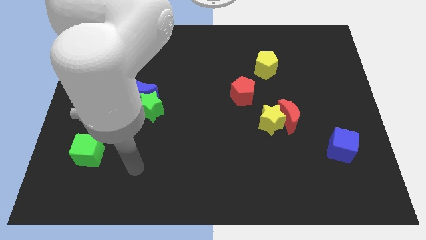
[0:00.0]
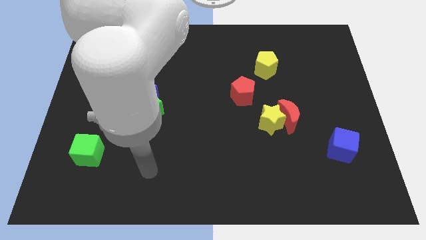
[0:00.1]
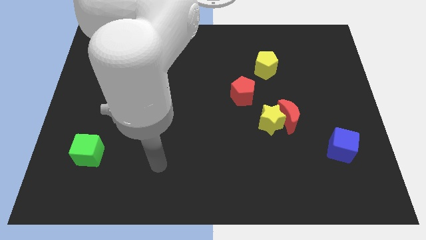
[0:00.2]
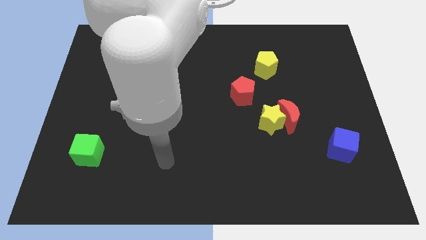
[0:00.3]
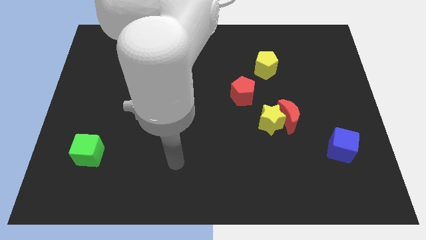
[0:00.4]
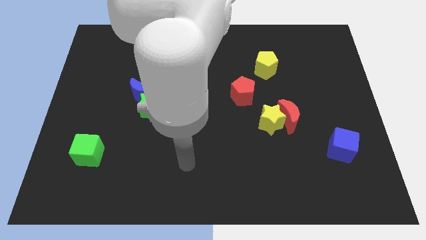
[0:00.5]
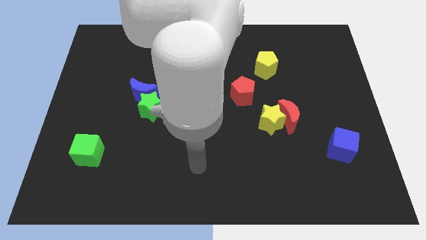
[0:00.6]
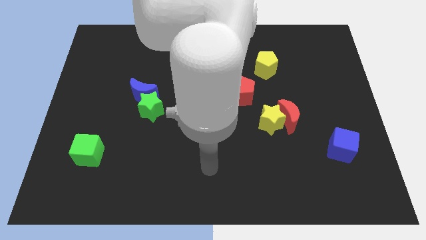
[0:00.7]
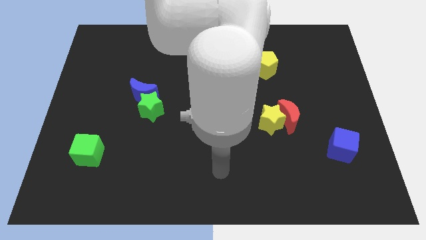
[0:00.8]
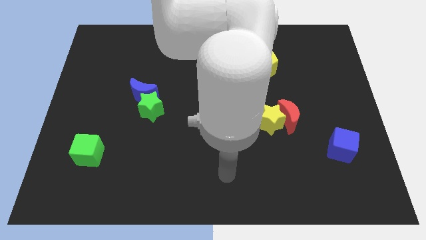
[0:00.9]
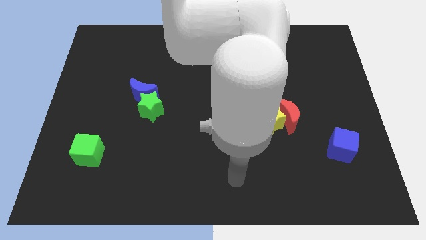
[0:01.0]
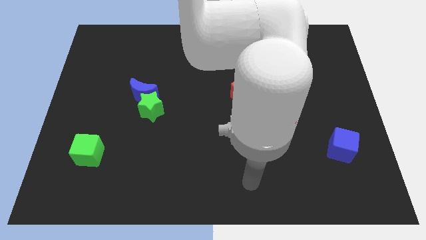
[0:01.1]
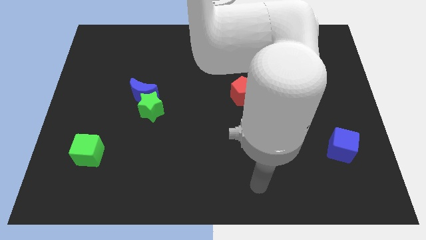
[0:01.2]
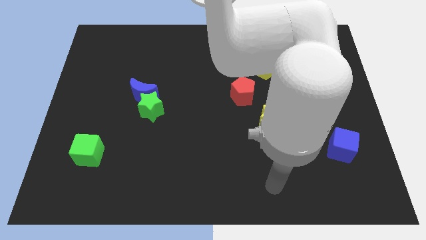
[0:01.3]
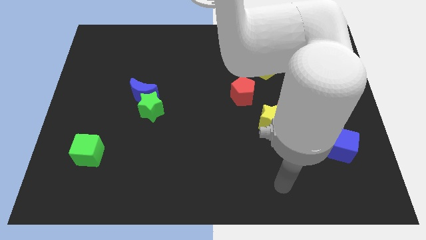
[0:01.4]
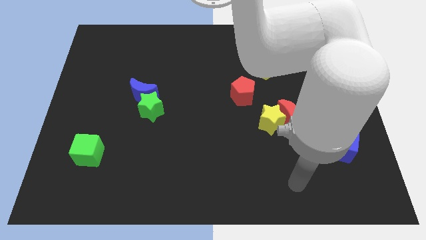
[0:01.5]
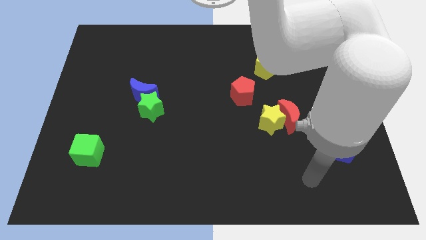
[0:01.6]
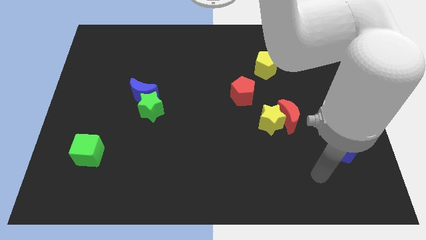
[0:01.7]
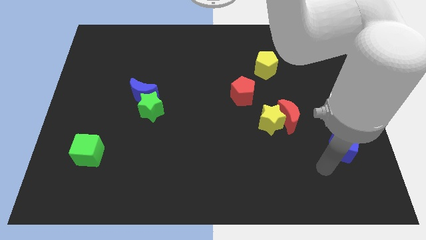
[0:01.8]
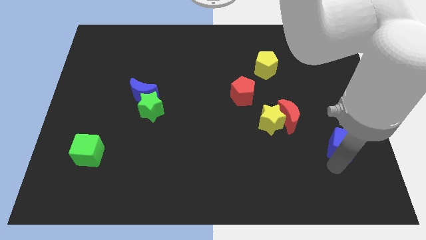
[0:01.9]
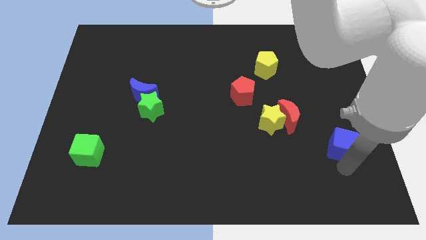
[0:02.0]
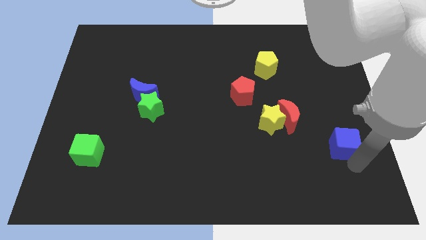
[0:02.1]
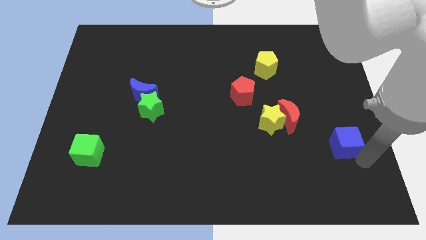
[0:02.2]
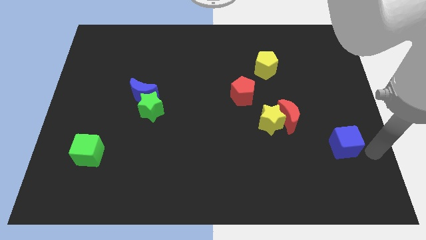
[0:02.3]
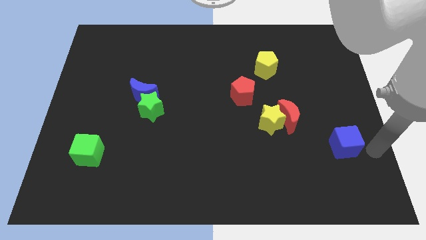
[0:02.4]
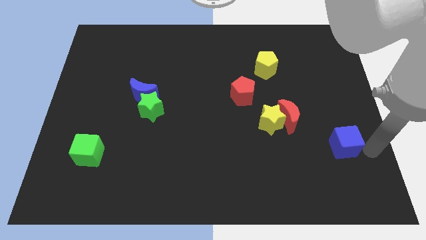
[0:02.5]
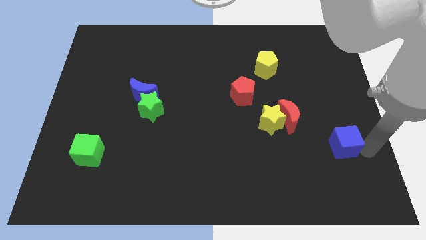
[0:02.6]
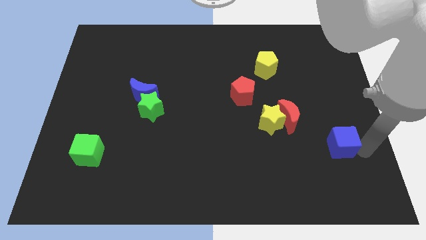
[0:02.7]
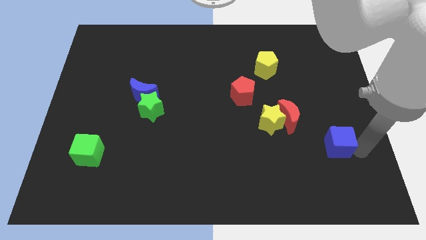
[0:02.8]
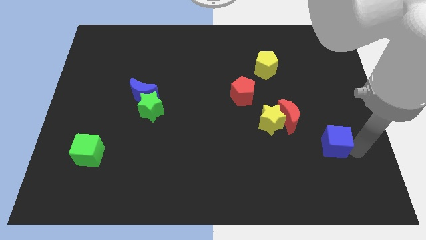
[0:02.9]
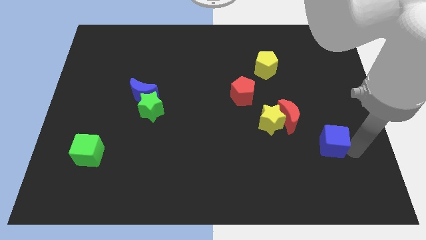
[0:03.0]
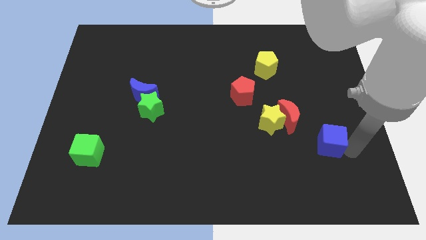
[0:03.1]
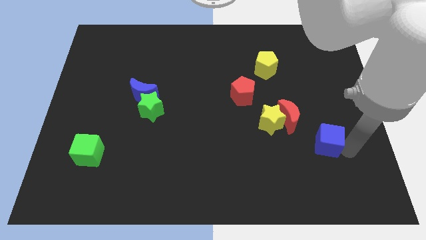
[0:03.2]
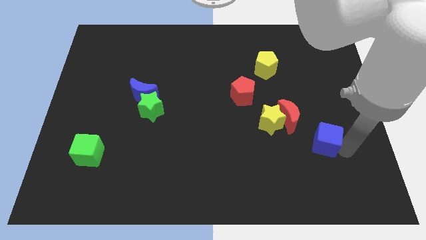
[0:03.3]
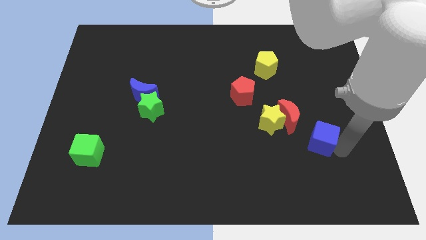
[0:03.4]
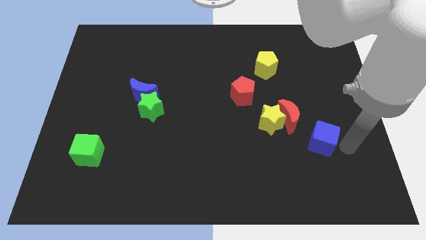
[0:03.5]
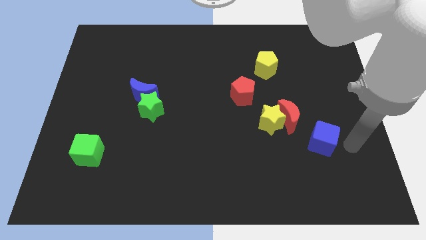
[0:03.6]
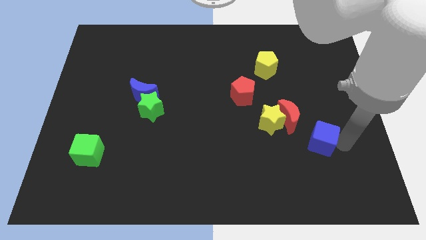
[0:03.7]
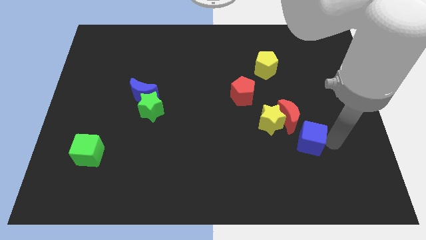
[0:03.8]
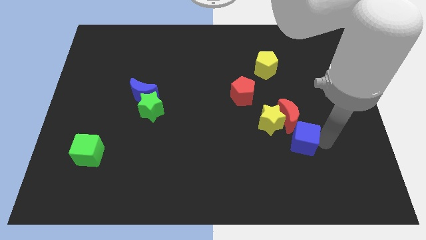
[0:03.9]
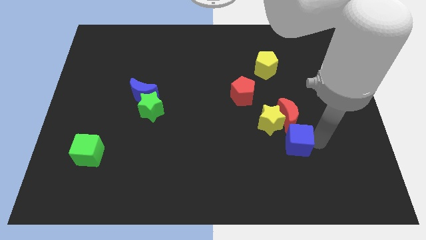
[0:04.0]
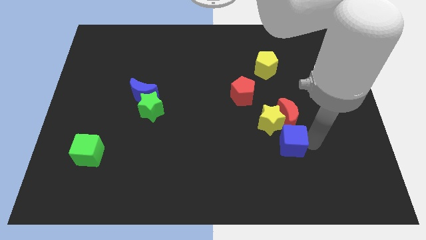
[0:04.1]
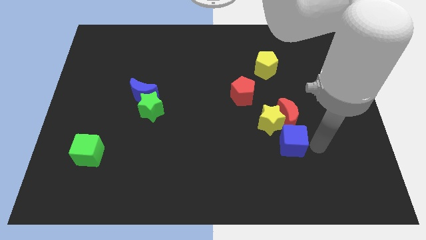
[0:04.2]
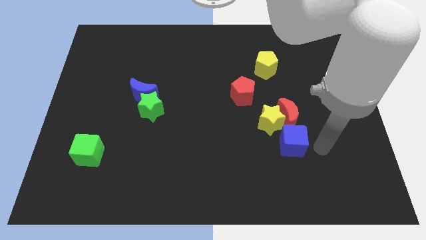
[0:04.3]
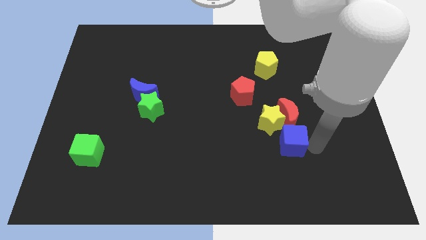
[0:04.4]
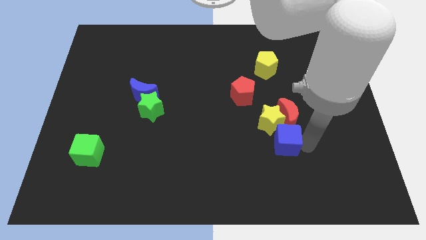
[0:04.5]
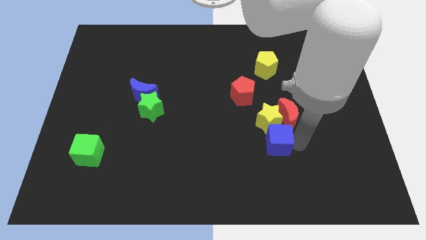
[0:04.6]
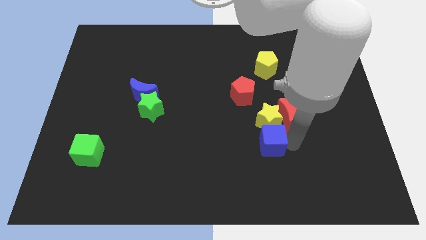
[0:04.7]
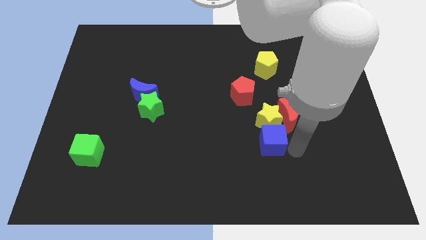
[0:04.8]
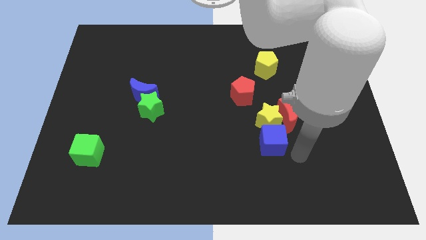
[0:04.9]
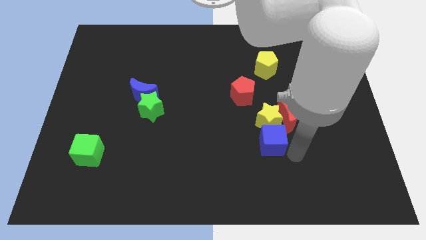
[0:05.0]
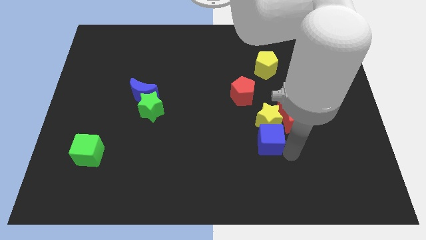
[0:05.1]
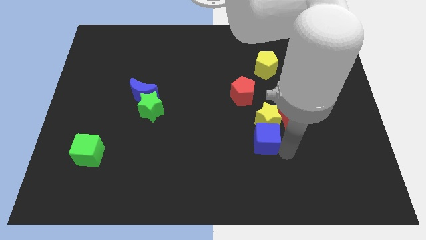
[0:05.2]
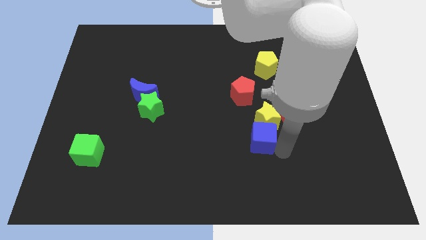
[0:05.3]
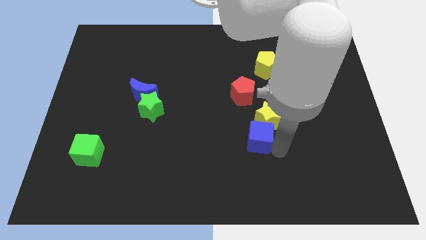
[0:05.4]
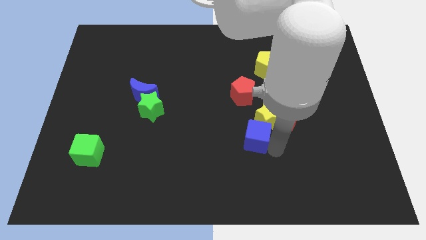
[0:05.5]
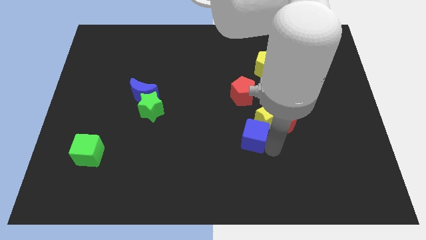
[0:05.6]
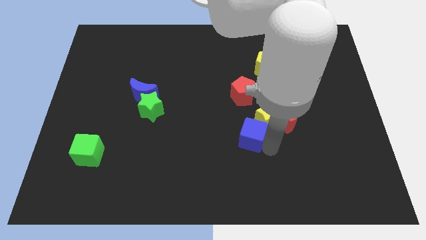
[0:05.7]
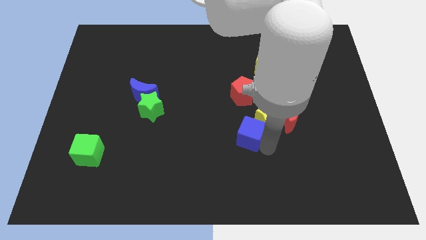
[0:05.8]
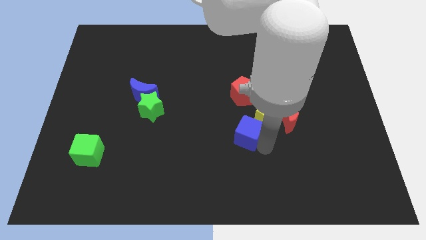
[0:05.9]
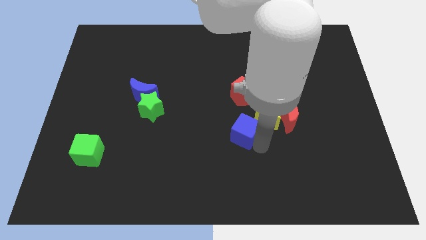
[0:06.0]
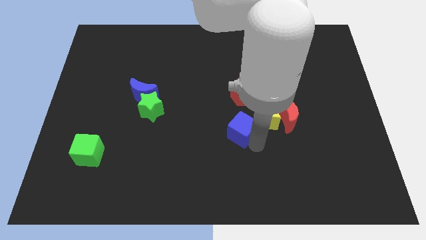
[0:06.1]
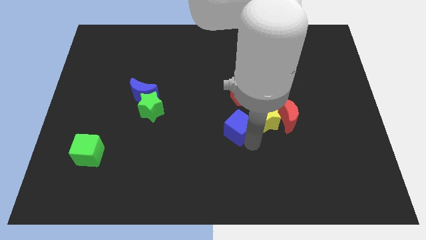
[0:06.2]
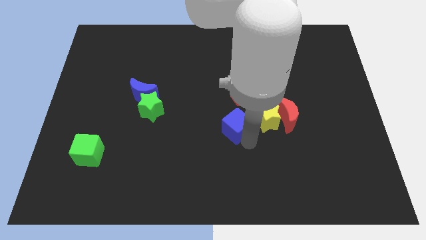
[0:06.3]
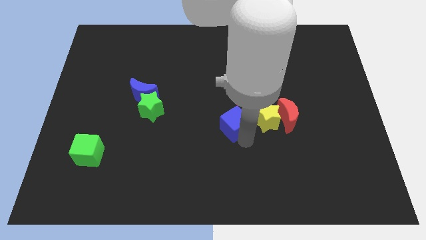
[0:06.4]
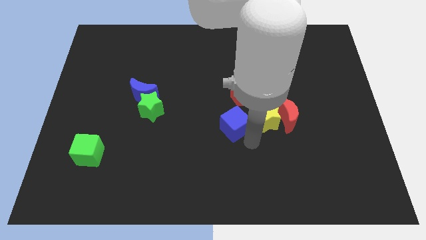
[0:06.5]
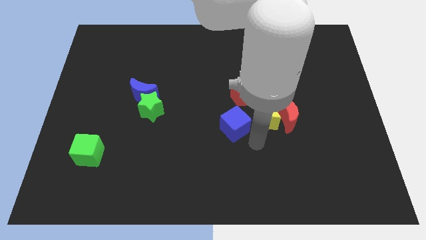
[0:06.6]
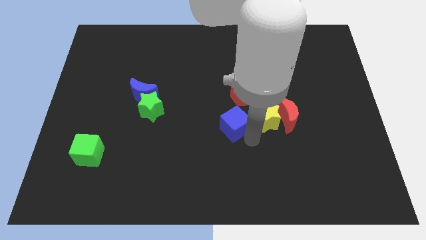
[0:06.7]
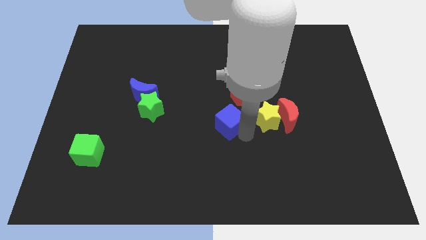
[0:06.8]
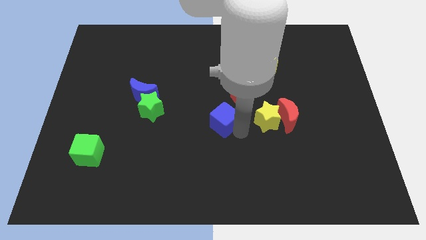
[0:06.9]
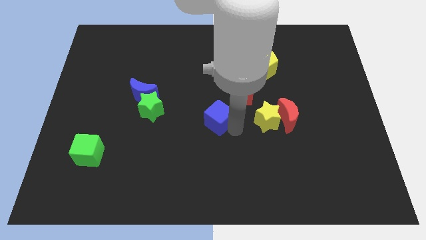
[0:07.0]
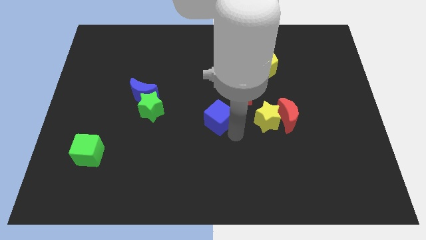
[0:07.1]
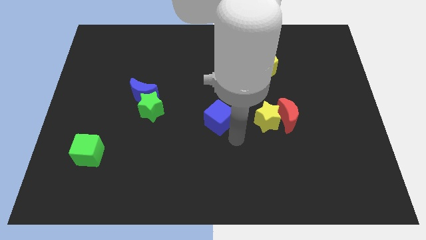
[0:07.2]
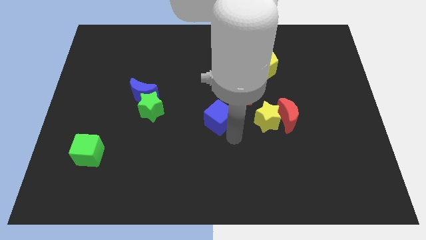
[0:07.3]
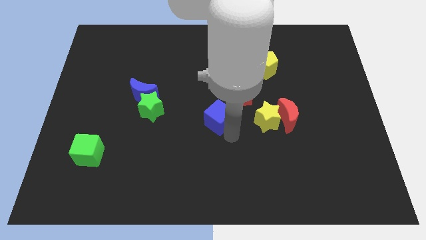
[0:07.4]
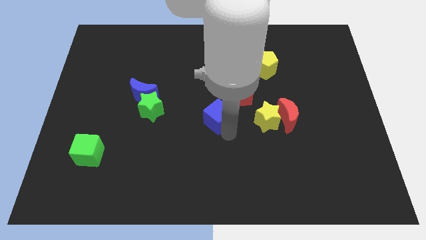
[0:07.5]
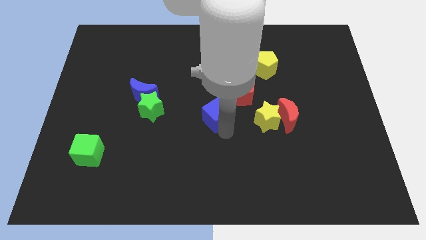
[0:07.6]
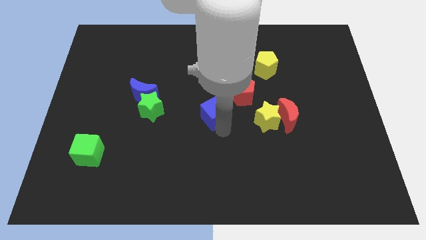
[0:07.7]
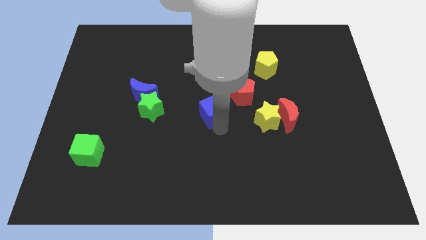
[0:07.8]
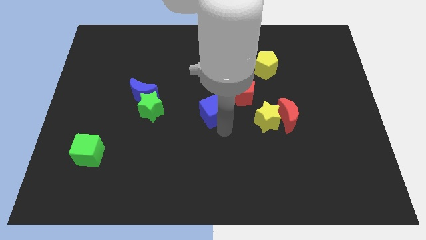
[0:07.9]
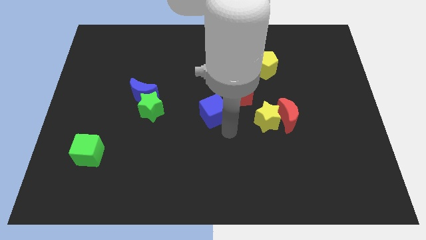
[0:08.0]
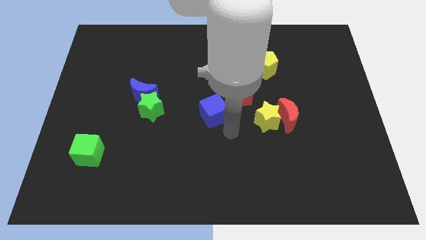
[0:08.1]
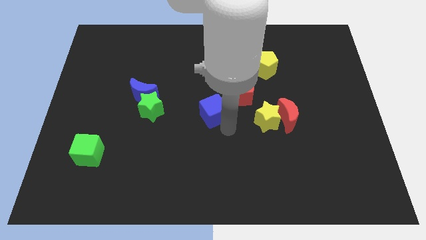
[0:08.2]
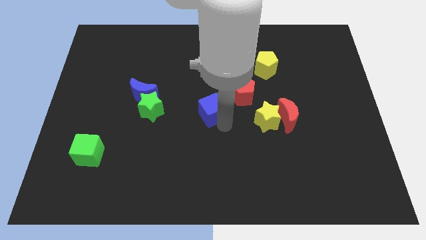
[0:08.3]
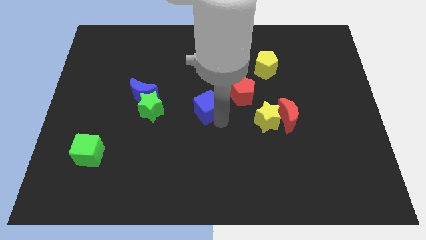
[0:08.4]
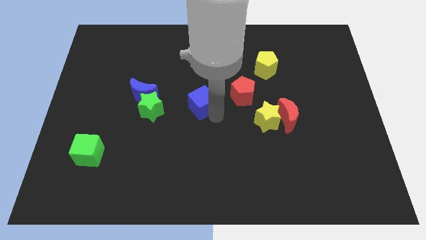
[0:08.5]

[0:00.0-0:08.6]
slide the blue cube right of the blue moon
